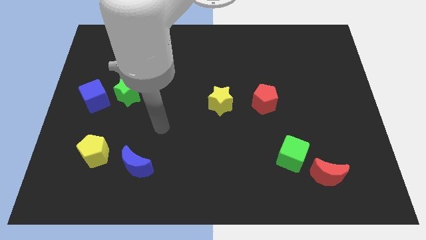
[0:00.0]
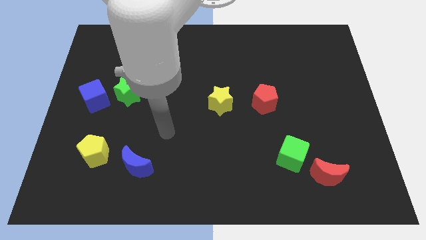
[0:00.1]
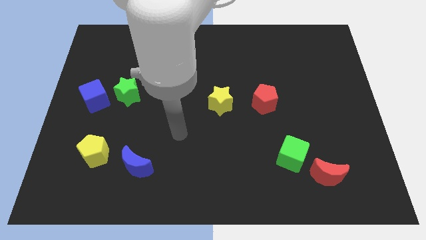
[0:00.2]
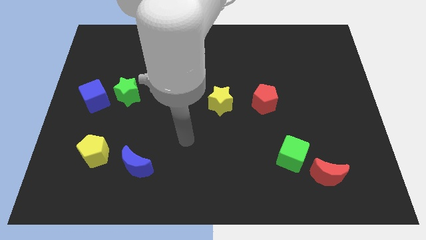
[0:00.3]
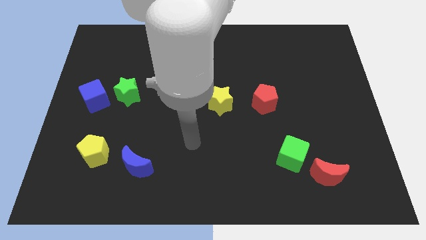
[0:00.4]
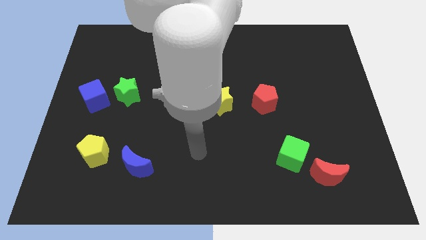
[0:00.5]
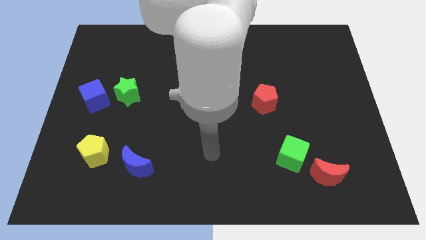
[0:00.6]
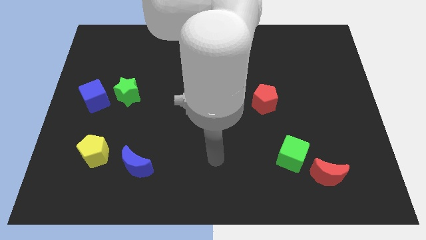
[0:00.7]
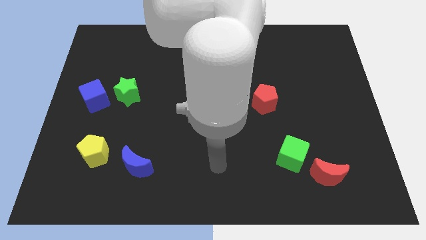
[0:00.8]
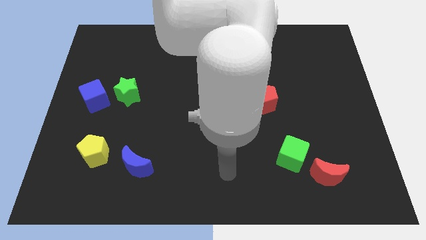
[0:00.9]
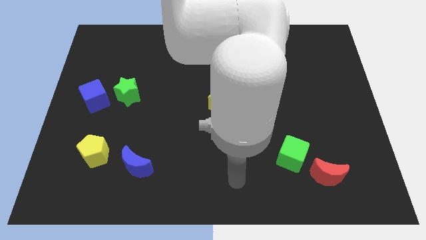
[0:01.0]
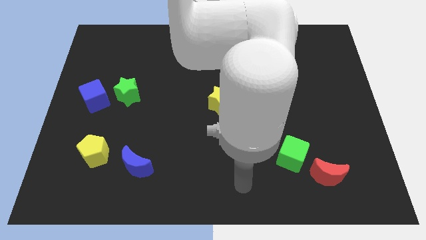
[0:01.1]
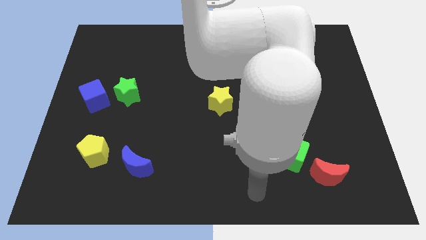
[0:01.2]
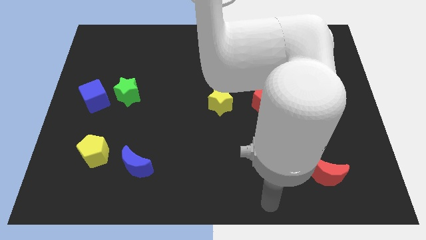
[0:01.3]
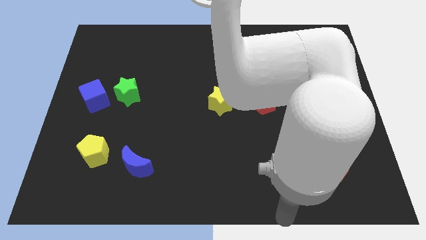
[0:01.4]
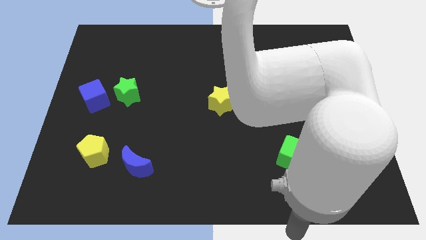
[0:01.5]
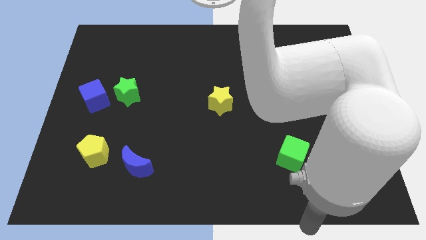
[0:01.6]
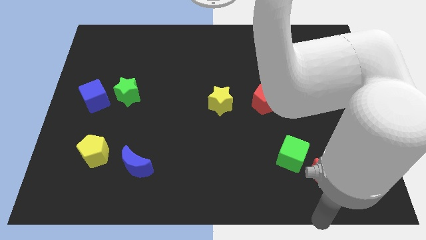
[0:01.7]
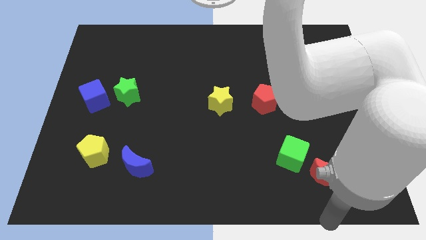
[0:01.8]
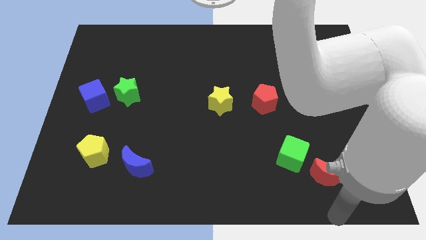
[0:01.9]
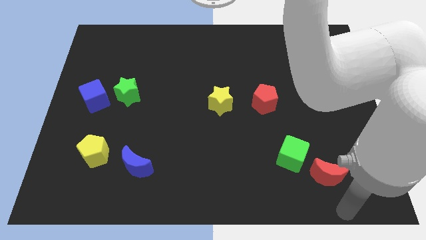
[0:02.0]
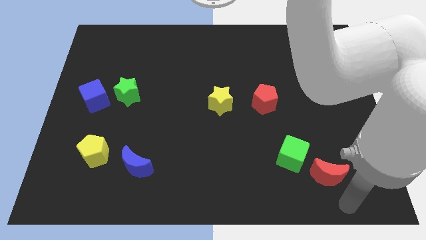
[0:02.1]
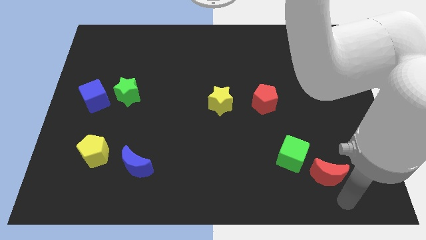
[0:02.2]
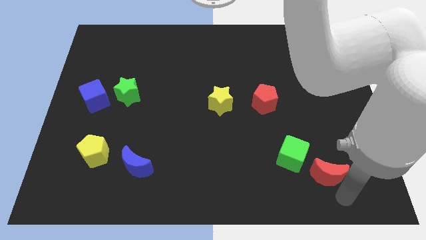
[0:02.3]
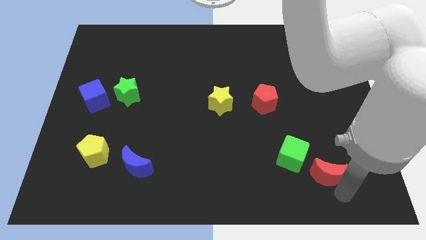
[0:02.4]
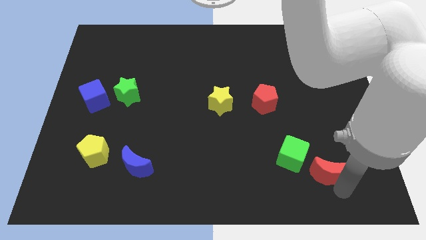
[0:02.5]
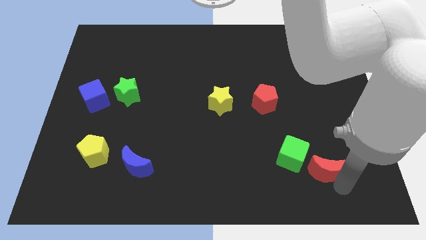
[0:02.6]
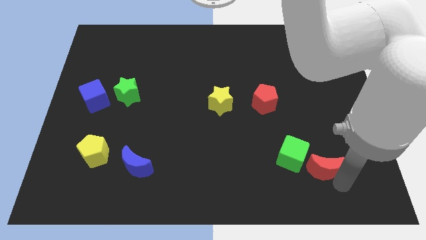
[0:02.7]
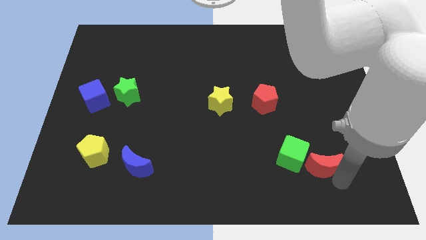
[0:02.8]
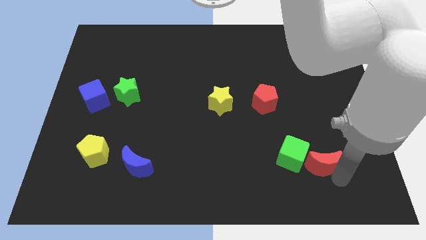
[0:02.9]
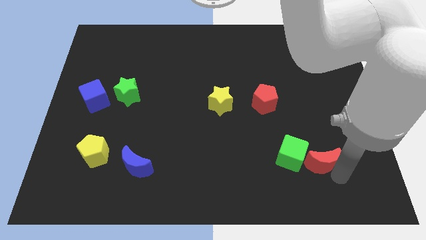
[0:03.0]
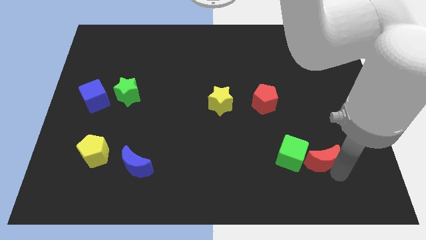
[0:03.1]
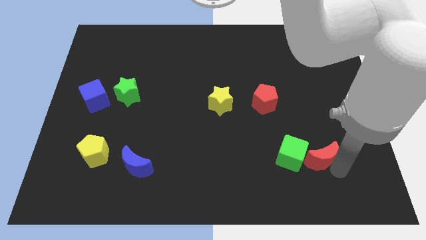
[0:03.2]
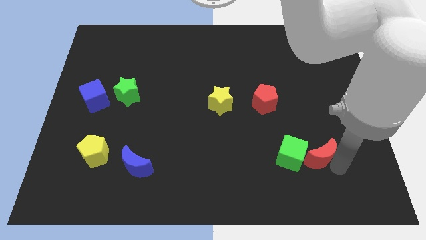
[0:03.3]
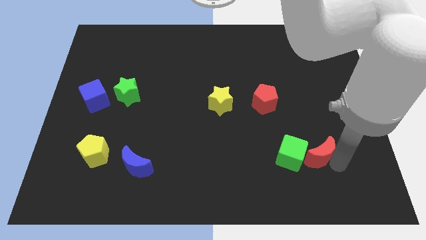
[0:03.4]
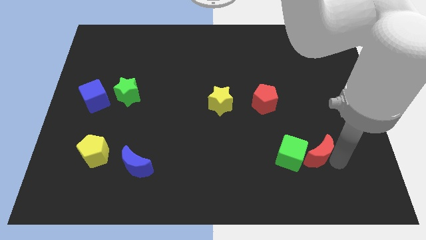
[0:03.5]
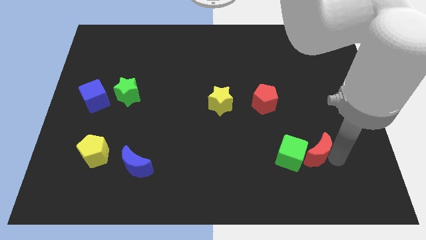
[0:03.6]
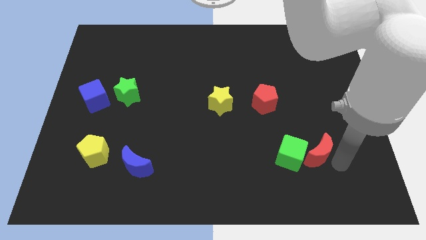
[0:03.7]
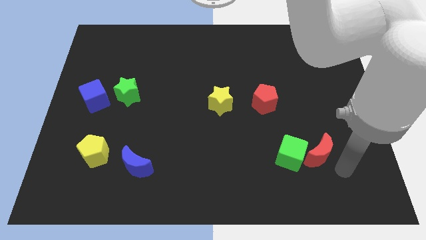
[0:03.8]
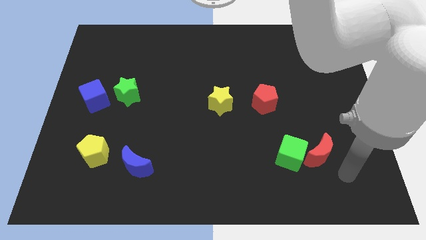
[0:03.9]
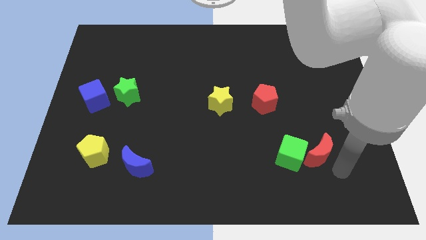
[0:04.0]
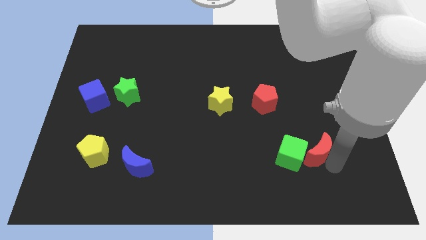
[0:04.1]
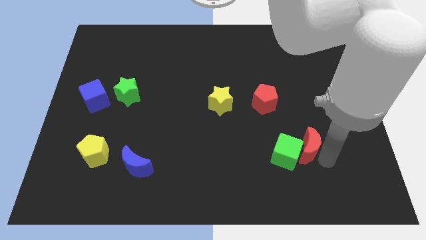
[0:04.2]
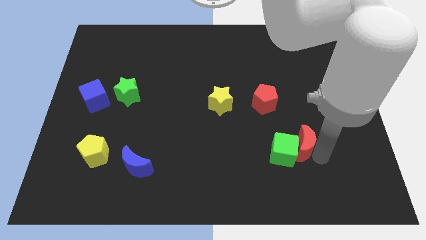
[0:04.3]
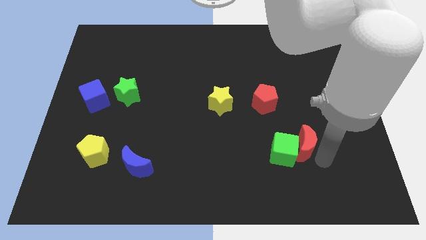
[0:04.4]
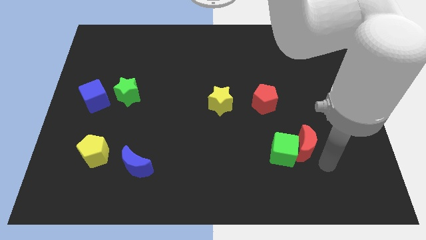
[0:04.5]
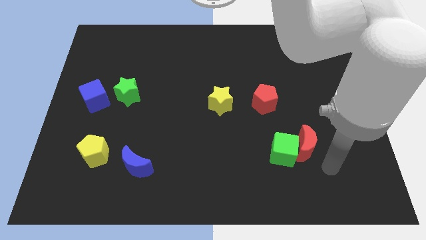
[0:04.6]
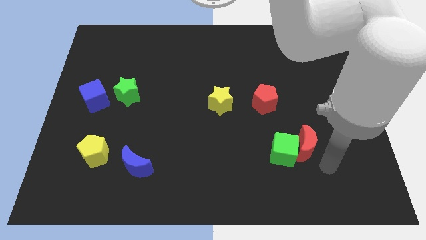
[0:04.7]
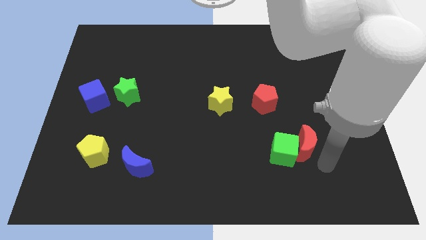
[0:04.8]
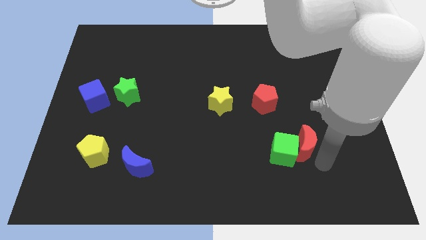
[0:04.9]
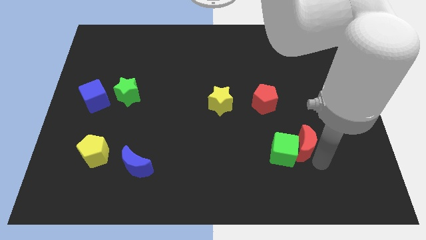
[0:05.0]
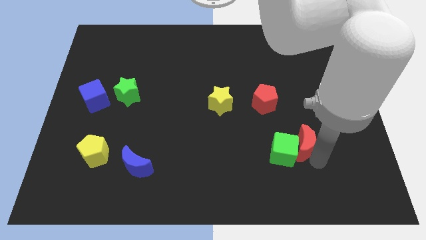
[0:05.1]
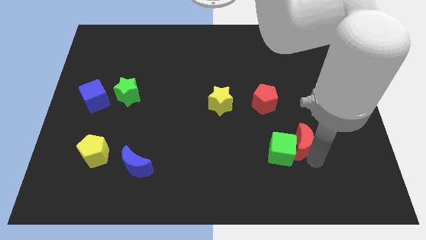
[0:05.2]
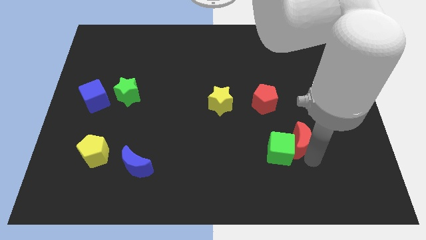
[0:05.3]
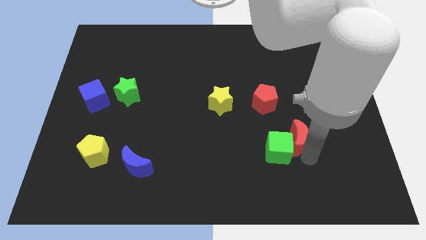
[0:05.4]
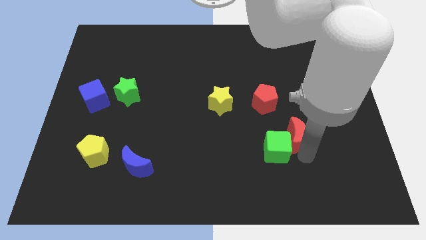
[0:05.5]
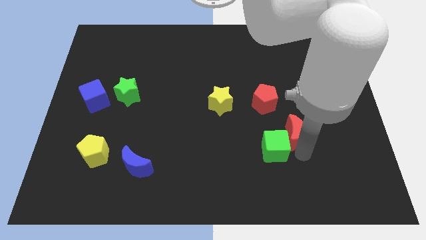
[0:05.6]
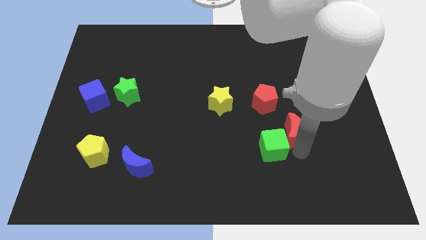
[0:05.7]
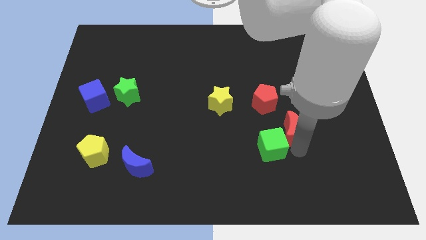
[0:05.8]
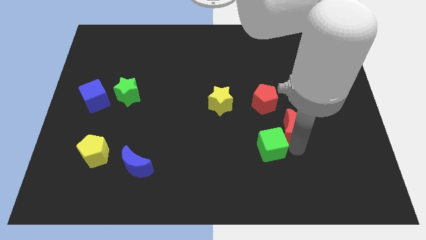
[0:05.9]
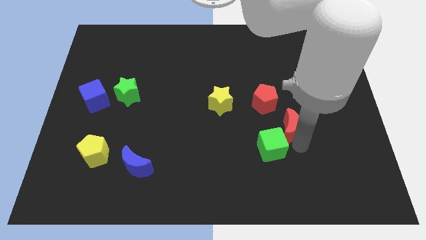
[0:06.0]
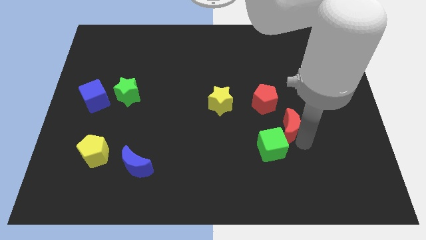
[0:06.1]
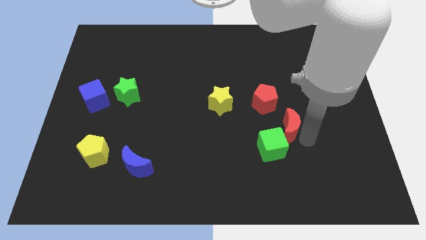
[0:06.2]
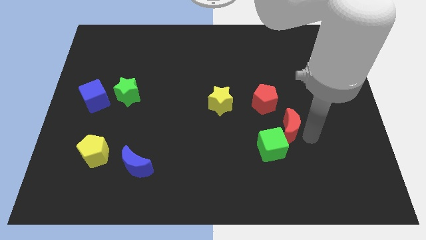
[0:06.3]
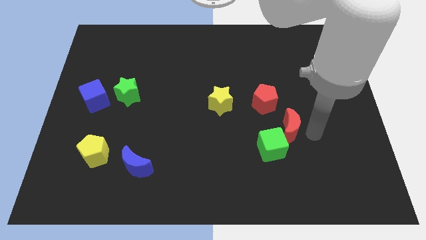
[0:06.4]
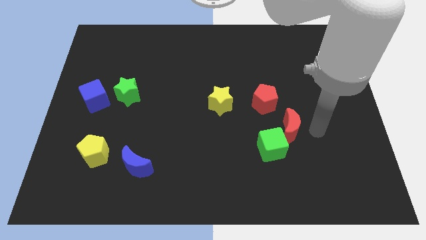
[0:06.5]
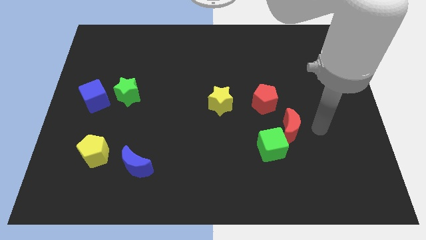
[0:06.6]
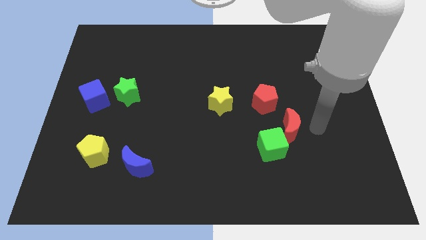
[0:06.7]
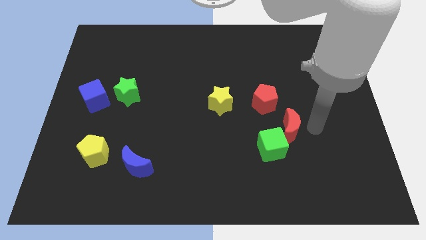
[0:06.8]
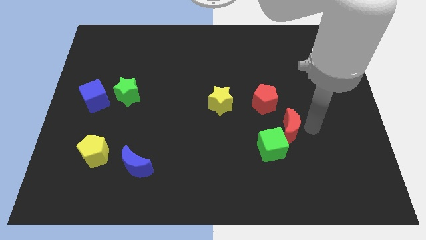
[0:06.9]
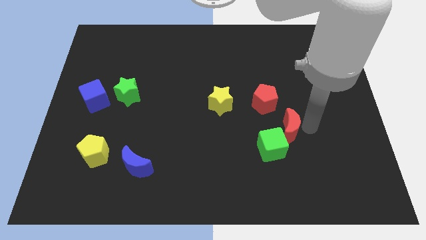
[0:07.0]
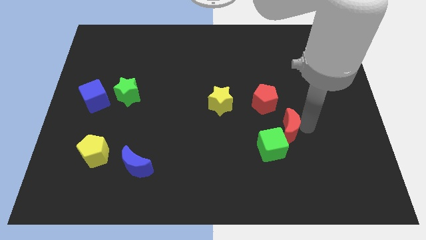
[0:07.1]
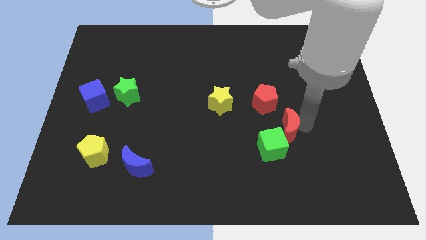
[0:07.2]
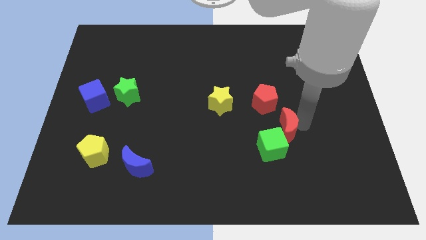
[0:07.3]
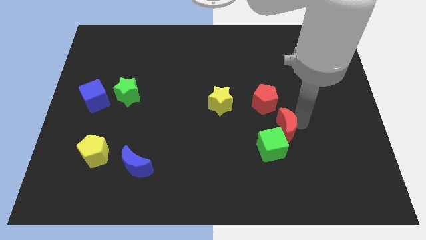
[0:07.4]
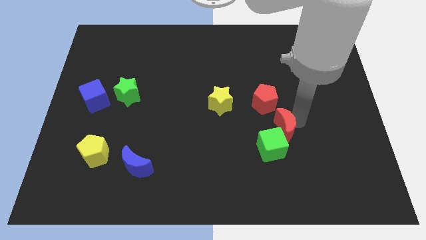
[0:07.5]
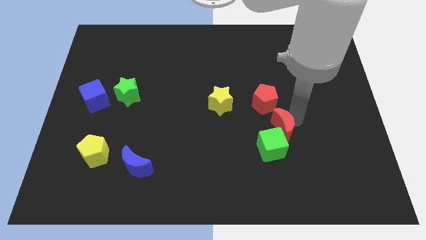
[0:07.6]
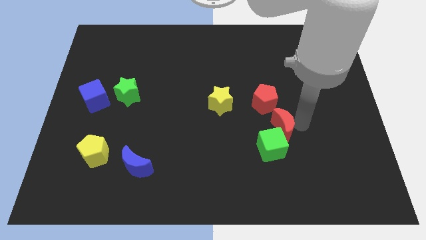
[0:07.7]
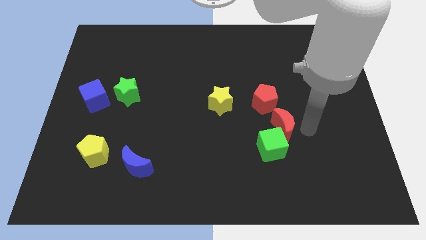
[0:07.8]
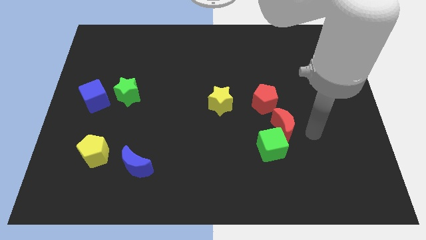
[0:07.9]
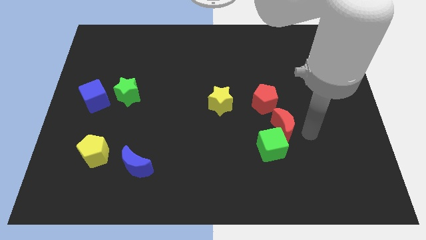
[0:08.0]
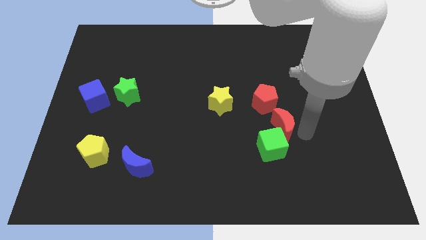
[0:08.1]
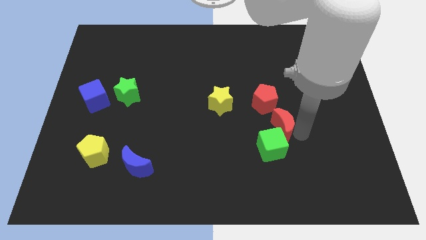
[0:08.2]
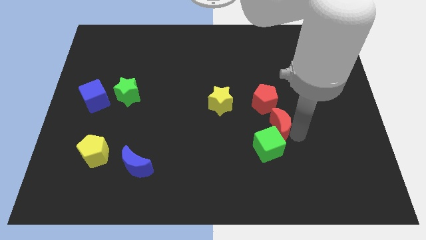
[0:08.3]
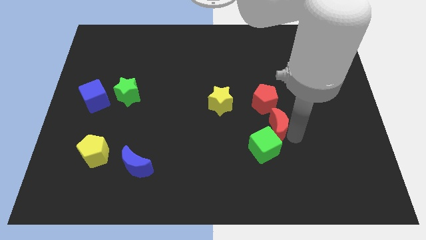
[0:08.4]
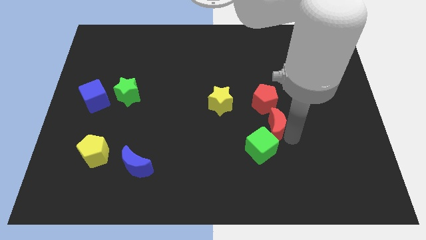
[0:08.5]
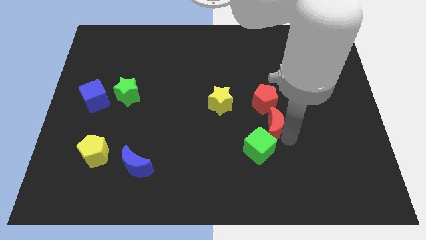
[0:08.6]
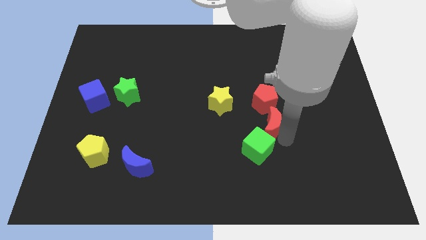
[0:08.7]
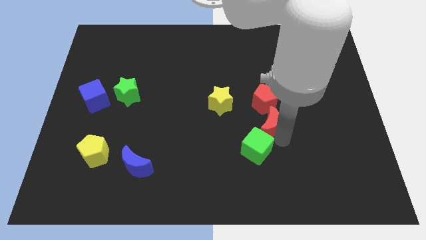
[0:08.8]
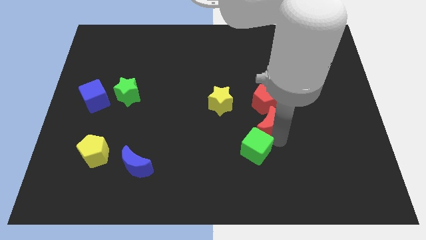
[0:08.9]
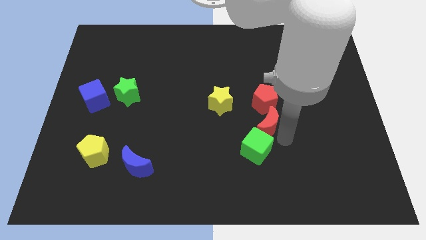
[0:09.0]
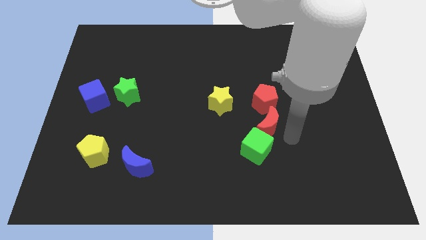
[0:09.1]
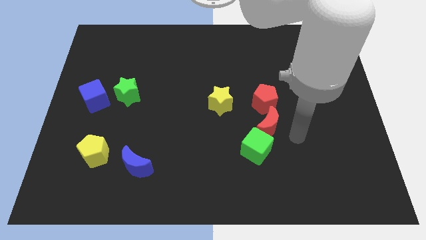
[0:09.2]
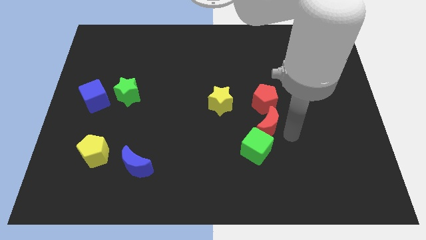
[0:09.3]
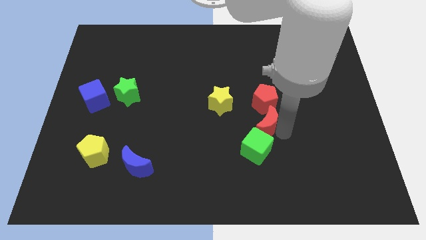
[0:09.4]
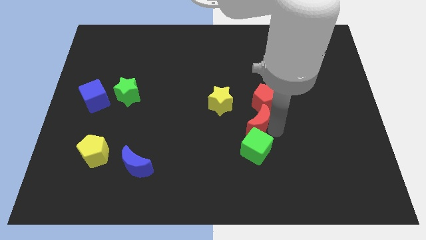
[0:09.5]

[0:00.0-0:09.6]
slide the red moon to the bottom left side of the red pentagon
